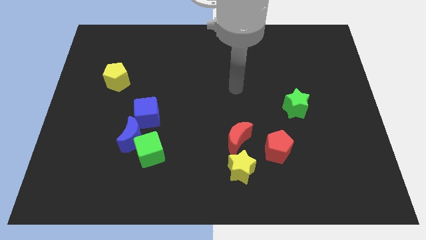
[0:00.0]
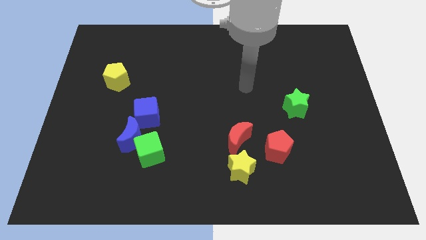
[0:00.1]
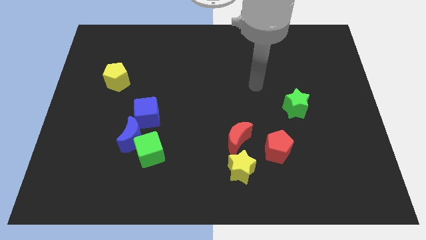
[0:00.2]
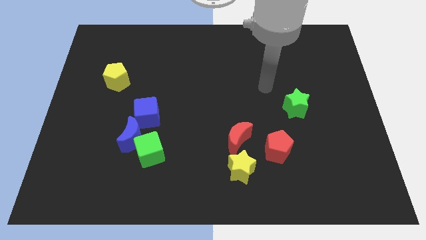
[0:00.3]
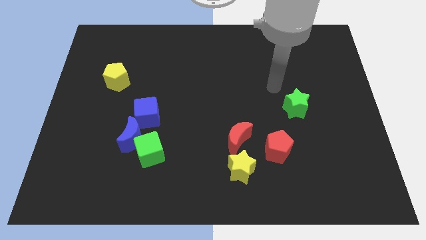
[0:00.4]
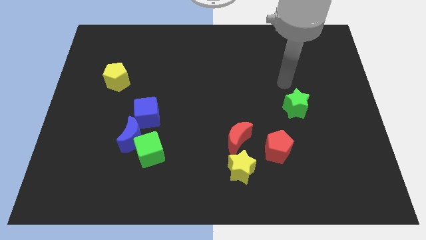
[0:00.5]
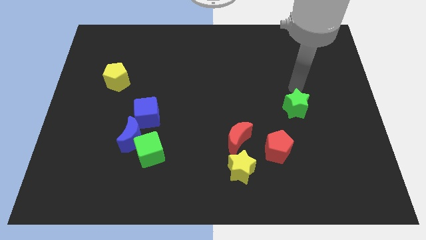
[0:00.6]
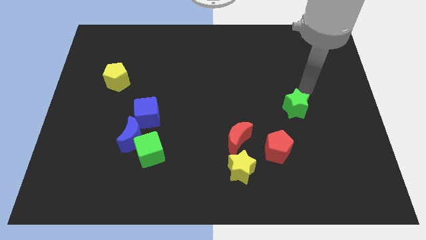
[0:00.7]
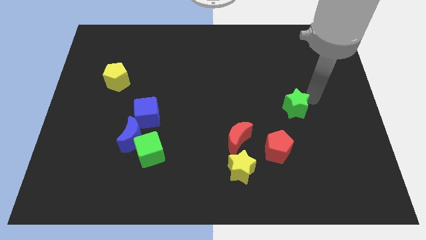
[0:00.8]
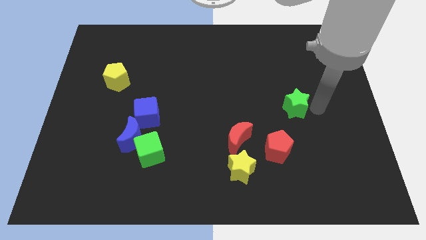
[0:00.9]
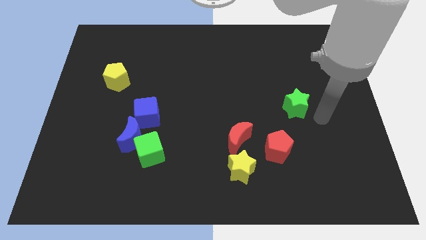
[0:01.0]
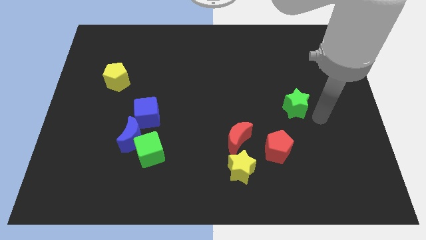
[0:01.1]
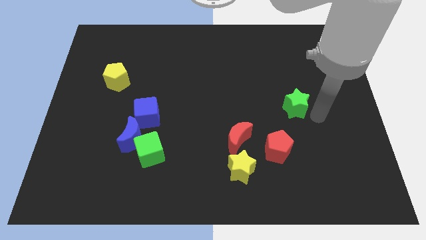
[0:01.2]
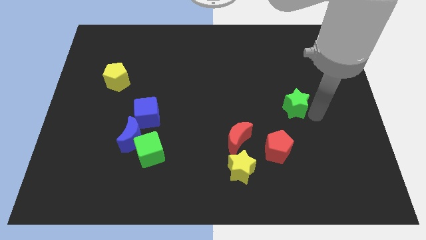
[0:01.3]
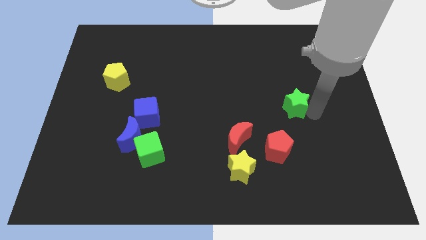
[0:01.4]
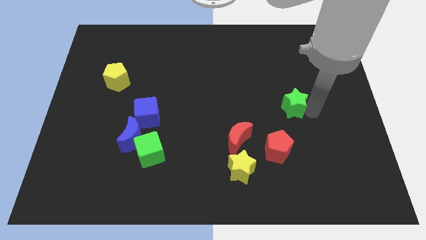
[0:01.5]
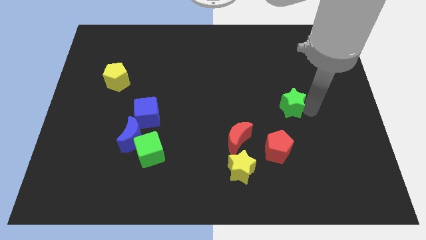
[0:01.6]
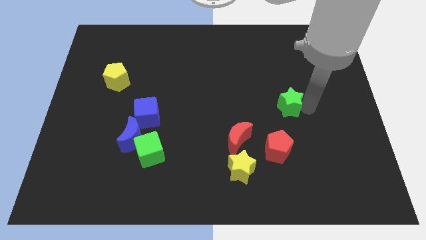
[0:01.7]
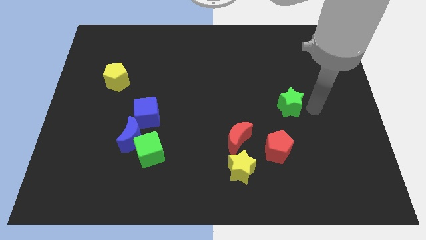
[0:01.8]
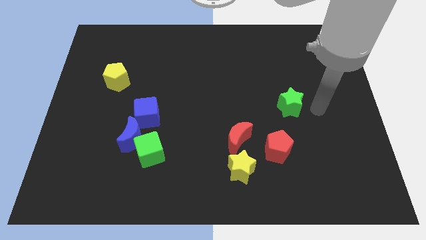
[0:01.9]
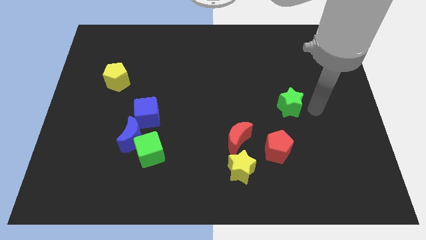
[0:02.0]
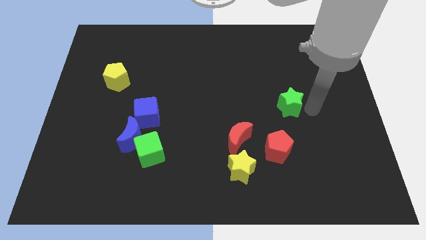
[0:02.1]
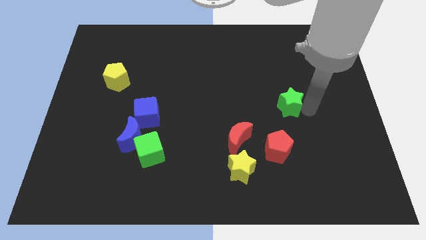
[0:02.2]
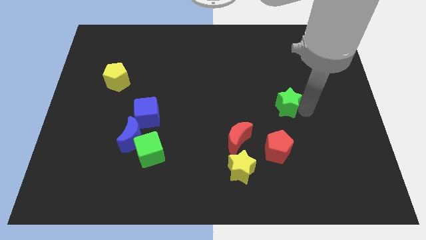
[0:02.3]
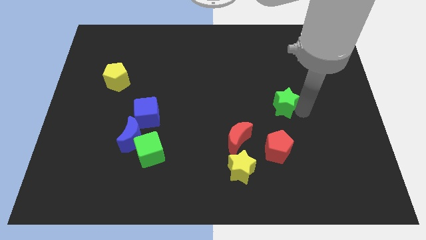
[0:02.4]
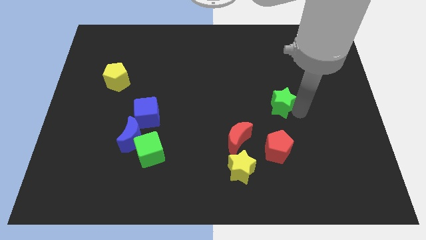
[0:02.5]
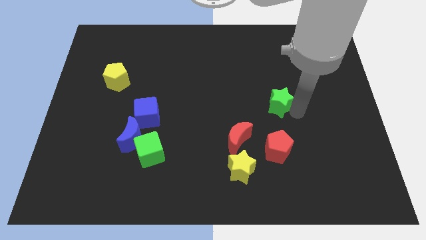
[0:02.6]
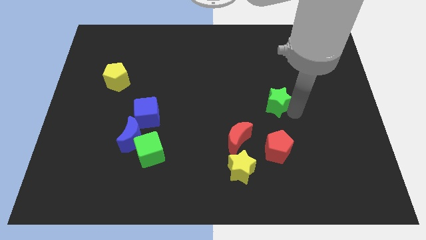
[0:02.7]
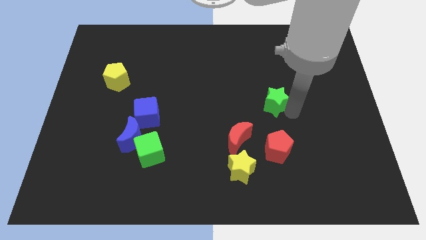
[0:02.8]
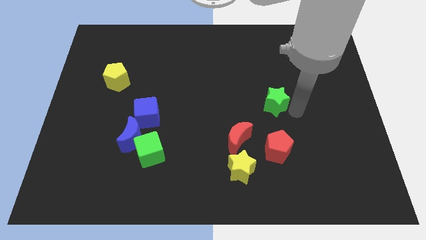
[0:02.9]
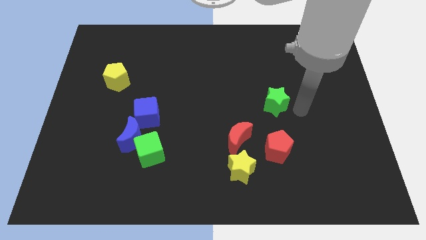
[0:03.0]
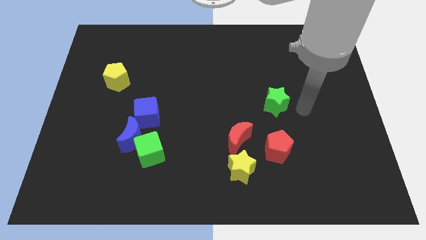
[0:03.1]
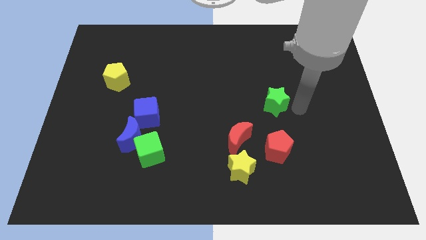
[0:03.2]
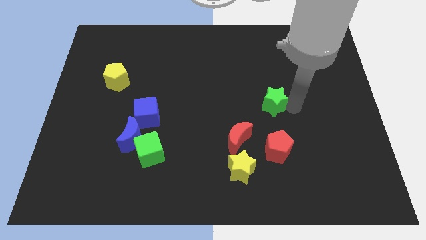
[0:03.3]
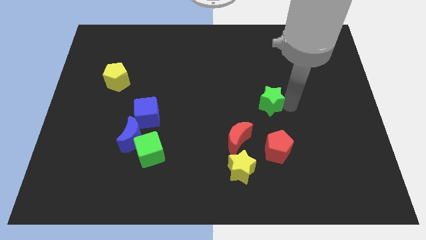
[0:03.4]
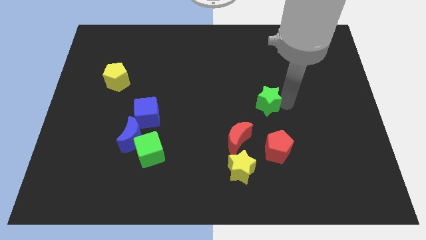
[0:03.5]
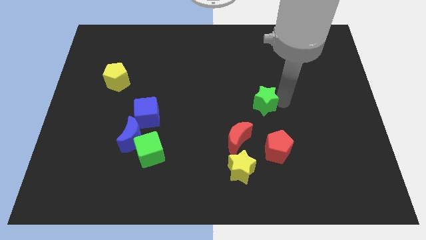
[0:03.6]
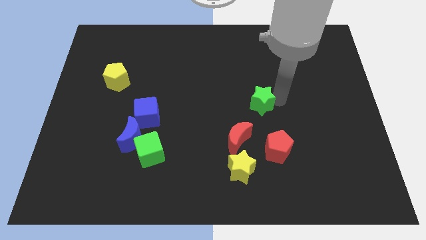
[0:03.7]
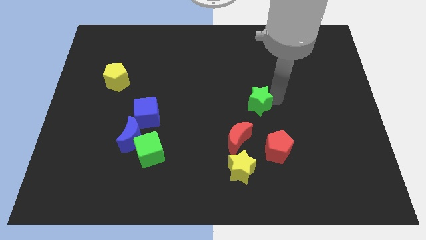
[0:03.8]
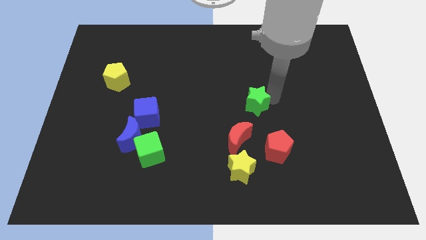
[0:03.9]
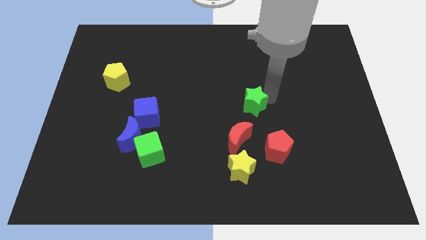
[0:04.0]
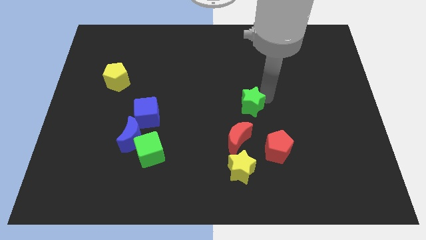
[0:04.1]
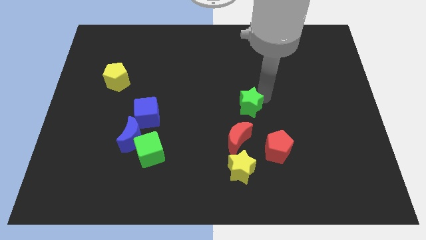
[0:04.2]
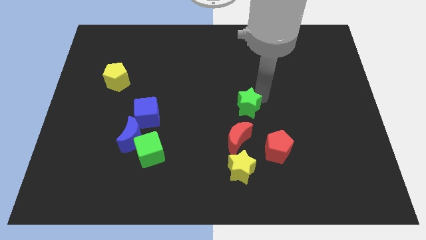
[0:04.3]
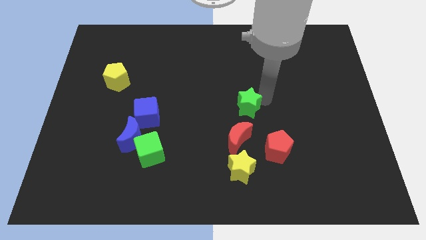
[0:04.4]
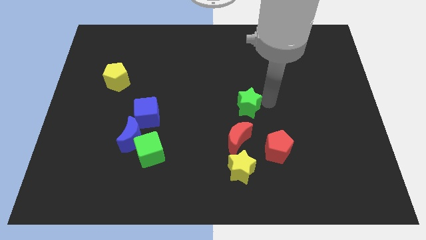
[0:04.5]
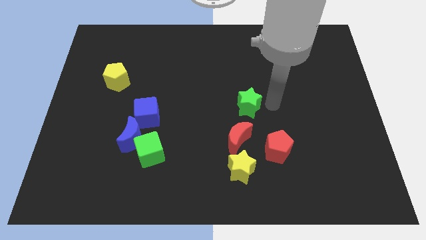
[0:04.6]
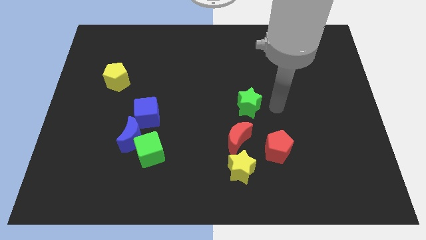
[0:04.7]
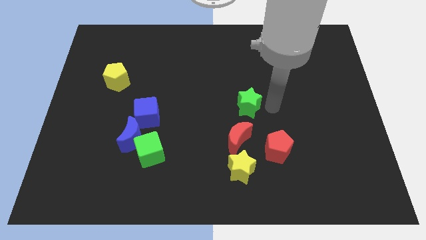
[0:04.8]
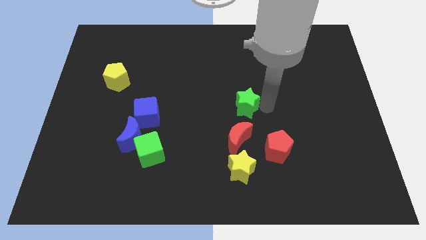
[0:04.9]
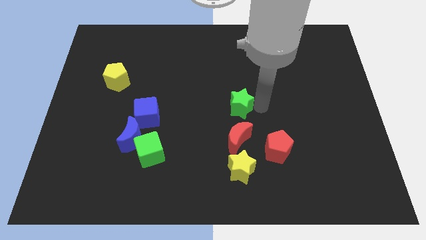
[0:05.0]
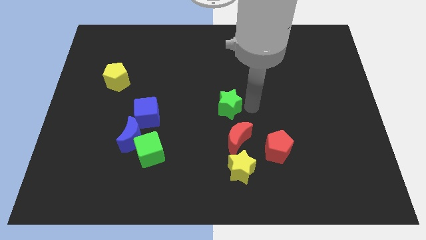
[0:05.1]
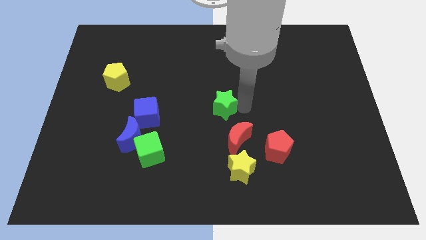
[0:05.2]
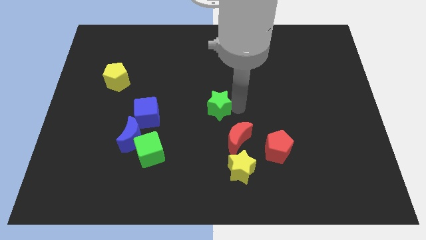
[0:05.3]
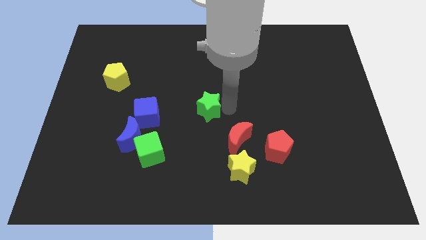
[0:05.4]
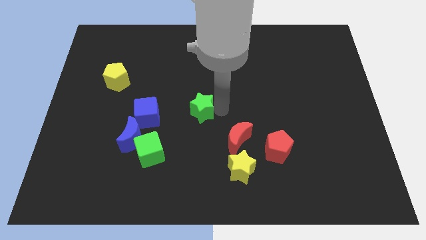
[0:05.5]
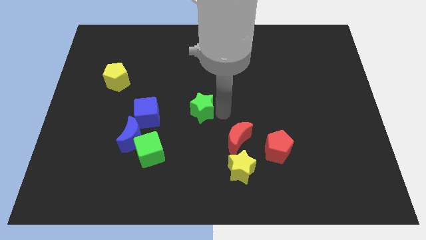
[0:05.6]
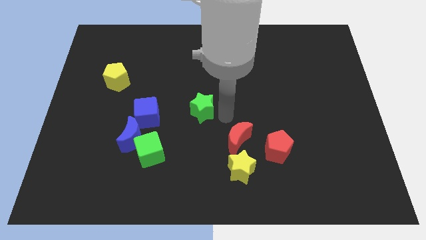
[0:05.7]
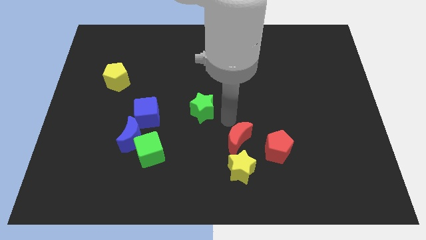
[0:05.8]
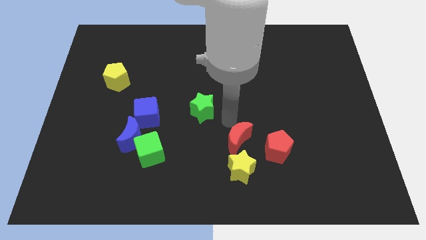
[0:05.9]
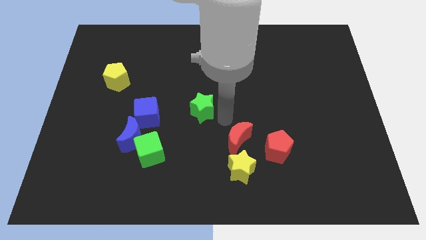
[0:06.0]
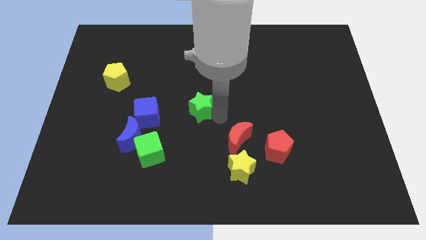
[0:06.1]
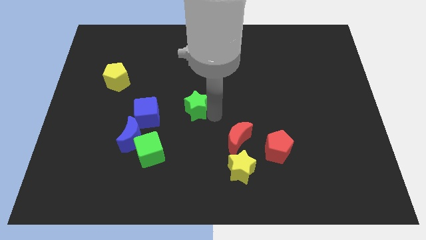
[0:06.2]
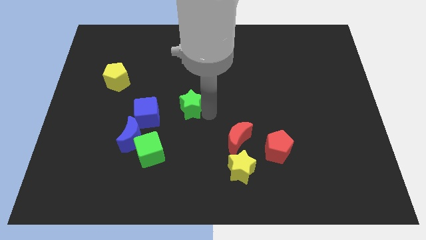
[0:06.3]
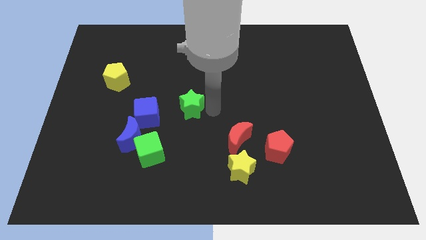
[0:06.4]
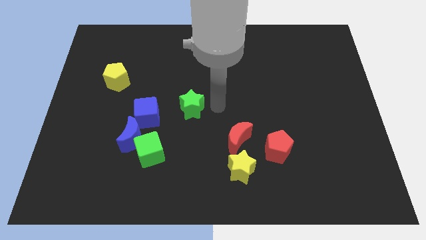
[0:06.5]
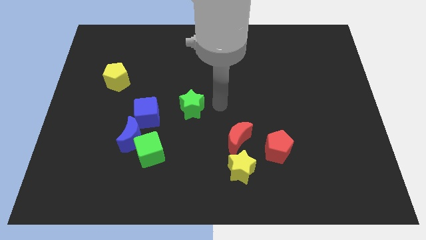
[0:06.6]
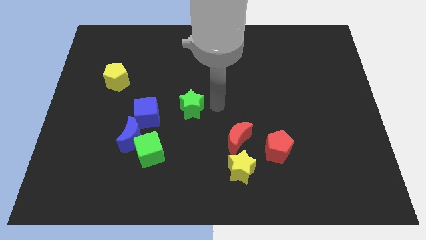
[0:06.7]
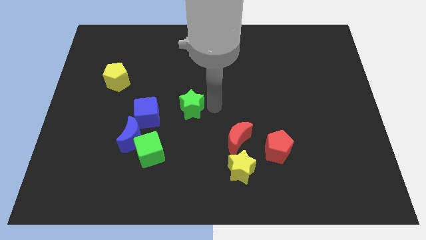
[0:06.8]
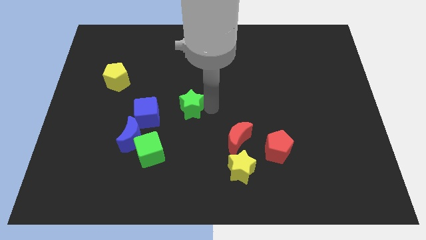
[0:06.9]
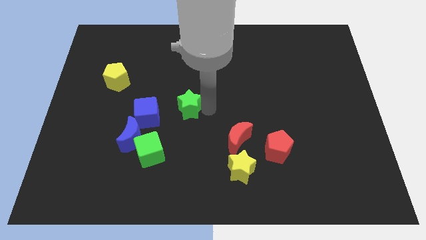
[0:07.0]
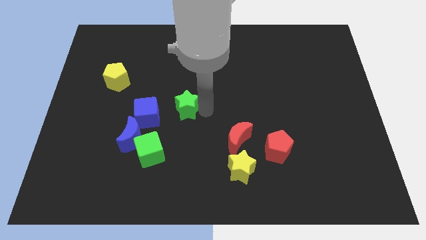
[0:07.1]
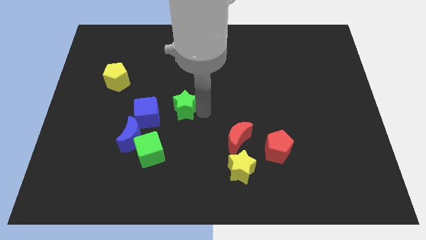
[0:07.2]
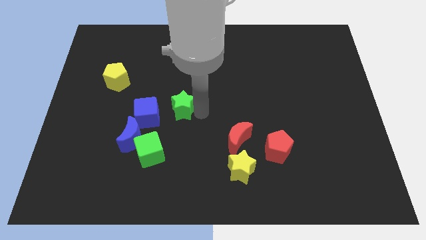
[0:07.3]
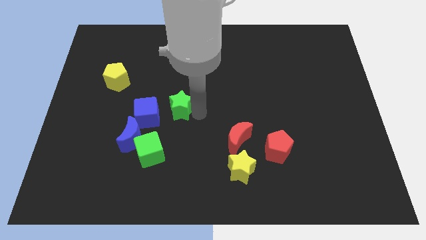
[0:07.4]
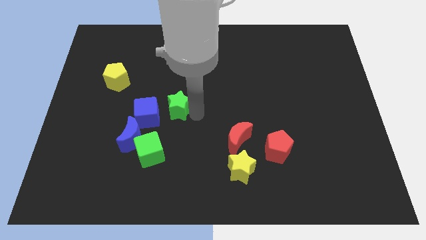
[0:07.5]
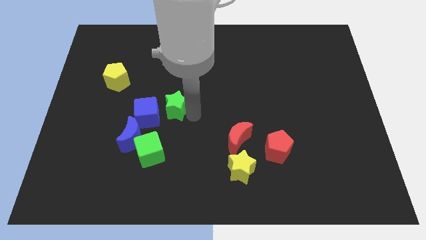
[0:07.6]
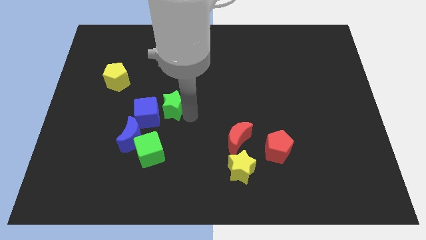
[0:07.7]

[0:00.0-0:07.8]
slide the green star to the blue cube
